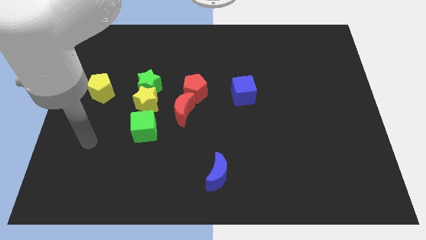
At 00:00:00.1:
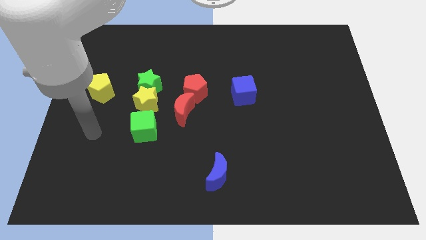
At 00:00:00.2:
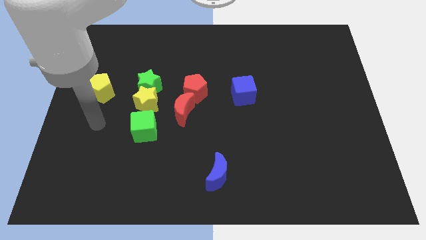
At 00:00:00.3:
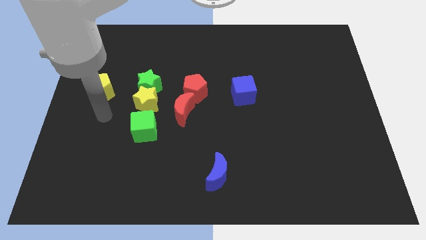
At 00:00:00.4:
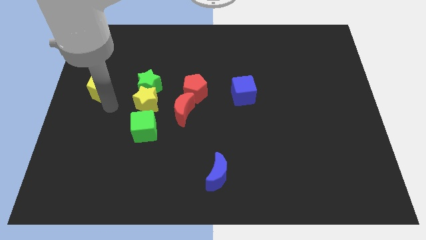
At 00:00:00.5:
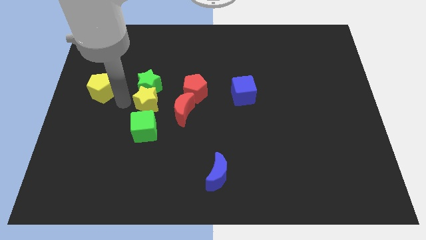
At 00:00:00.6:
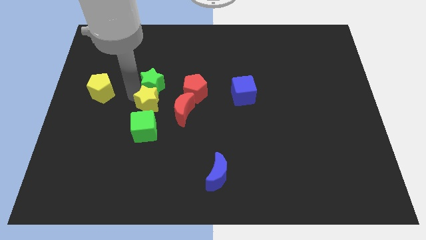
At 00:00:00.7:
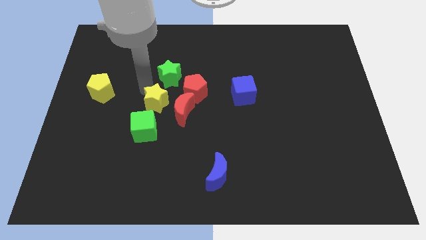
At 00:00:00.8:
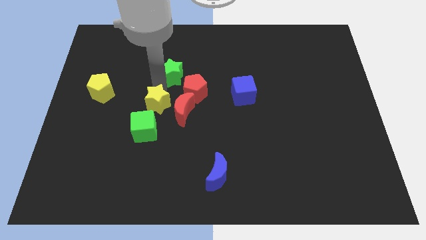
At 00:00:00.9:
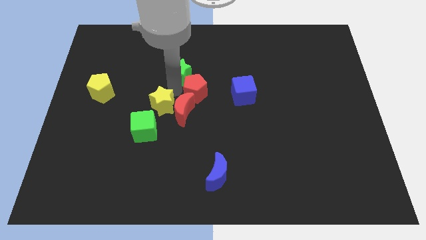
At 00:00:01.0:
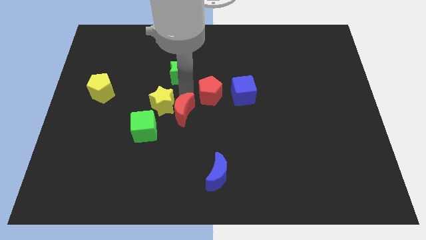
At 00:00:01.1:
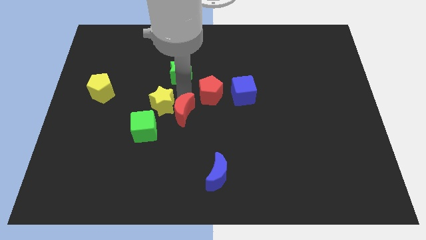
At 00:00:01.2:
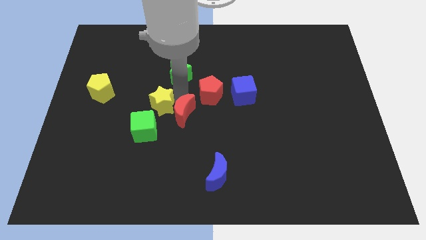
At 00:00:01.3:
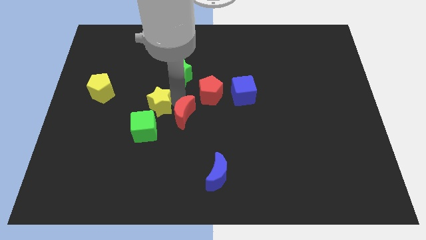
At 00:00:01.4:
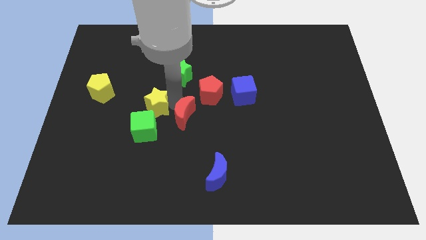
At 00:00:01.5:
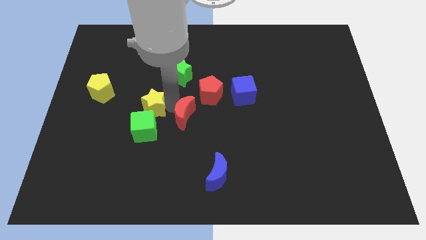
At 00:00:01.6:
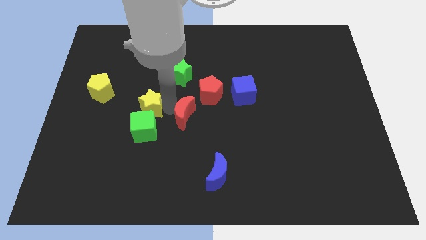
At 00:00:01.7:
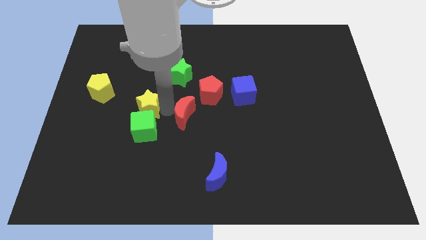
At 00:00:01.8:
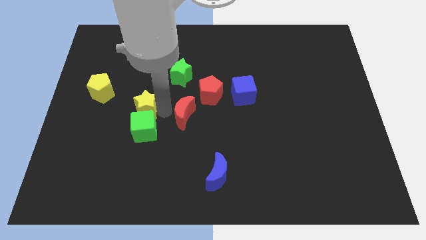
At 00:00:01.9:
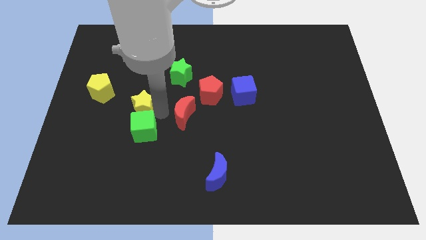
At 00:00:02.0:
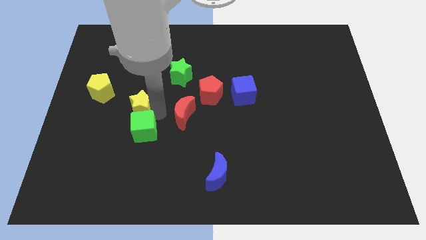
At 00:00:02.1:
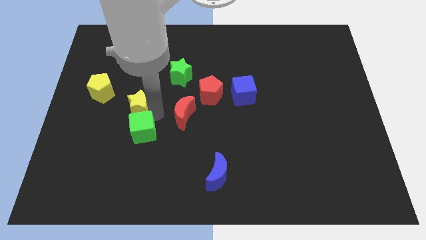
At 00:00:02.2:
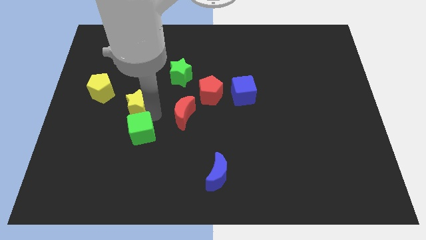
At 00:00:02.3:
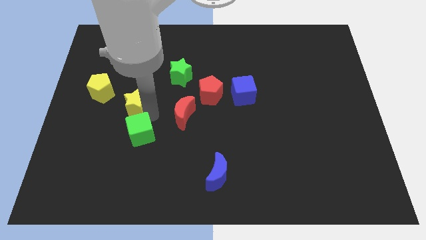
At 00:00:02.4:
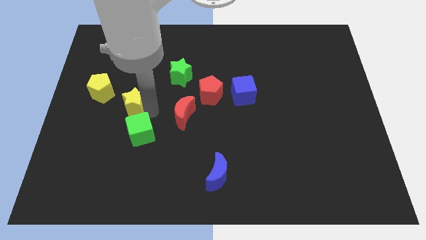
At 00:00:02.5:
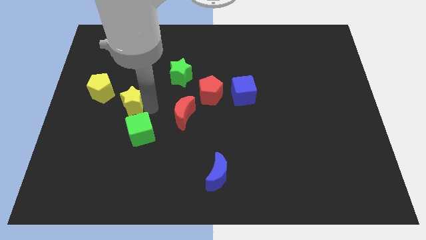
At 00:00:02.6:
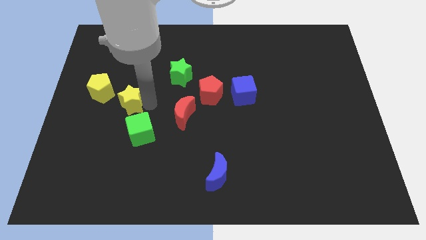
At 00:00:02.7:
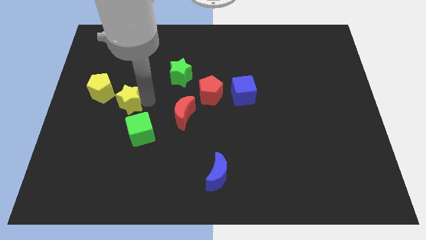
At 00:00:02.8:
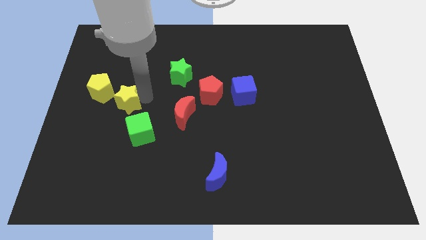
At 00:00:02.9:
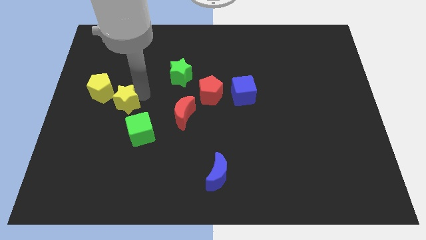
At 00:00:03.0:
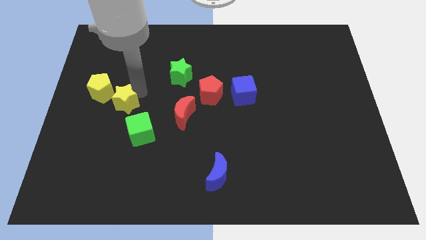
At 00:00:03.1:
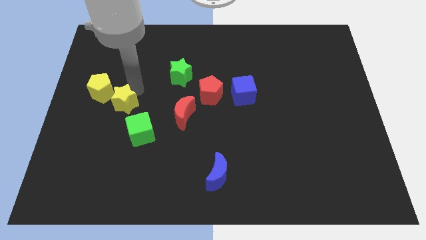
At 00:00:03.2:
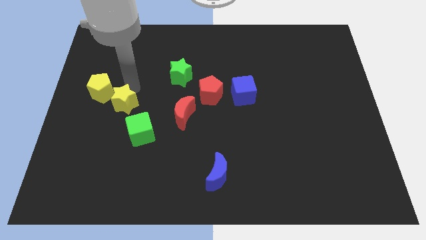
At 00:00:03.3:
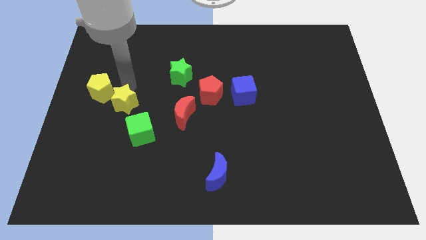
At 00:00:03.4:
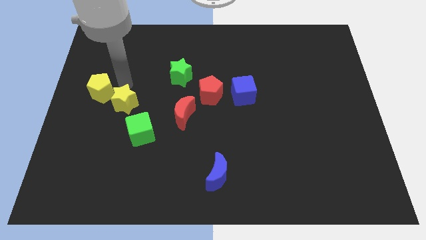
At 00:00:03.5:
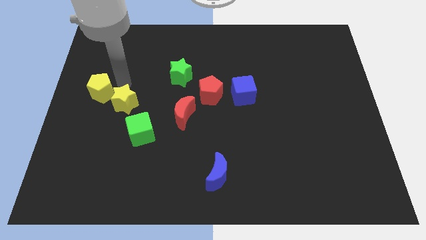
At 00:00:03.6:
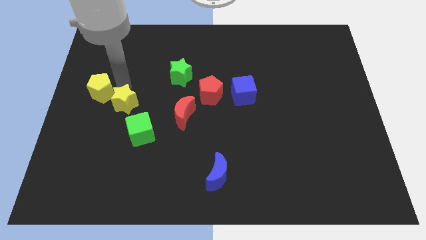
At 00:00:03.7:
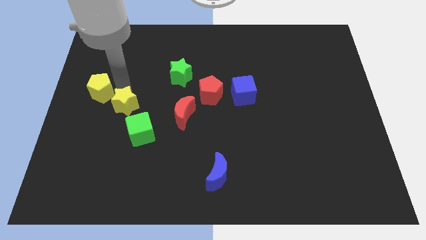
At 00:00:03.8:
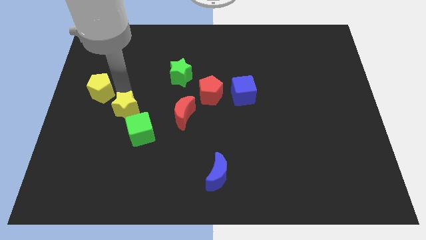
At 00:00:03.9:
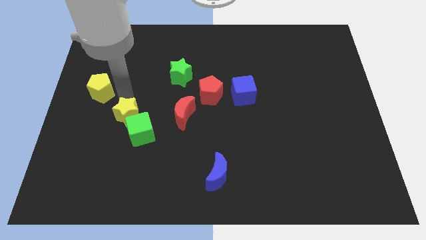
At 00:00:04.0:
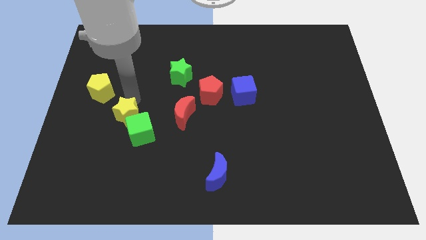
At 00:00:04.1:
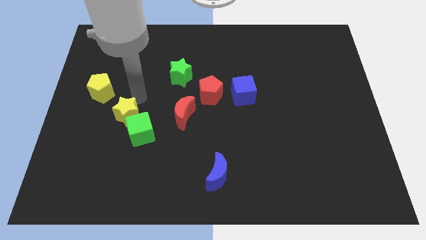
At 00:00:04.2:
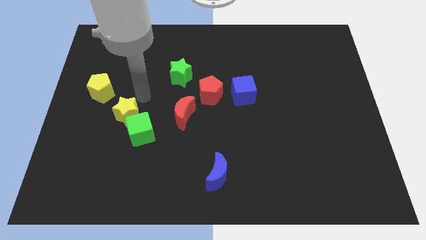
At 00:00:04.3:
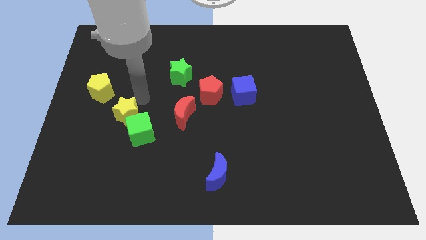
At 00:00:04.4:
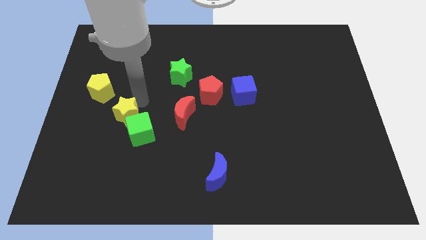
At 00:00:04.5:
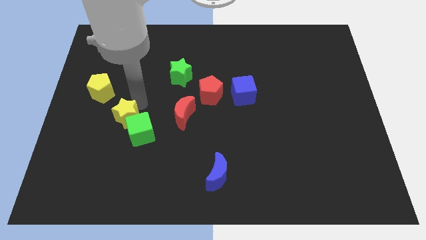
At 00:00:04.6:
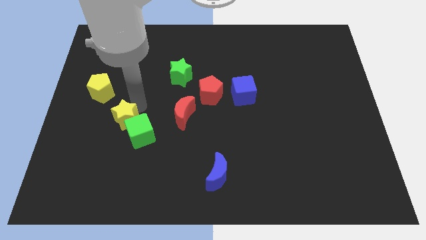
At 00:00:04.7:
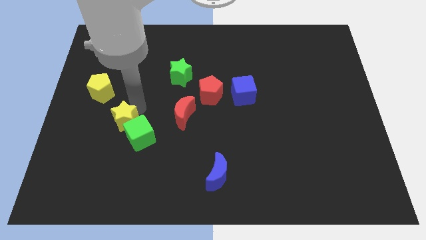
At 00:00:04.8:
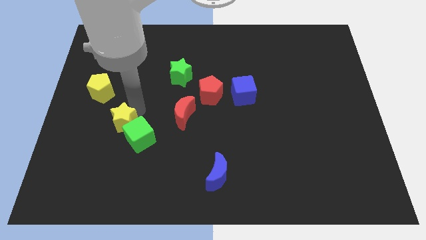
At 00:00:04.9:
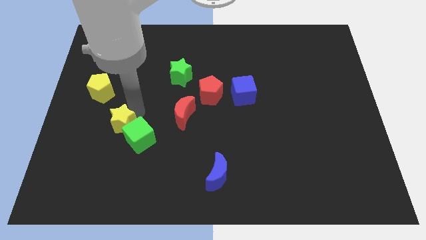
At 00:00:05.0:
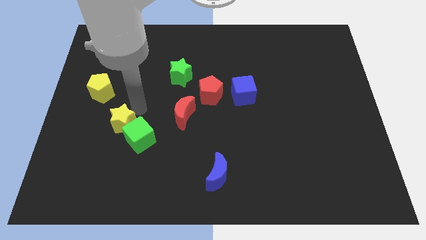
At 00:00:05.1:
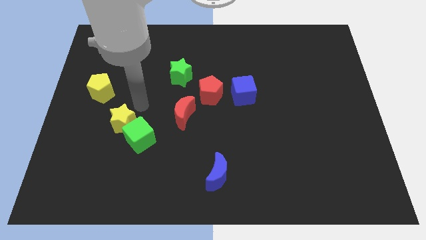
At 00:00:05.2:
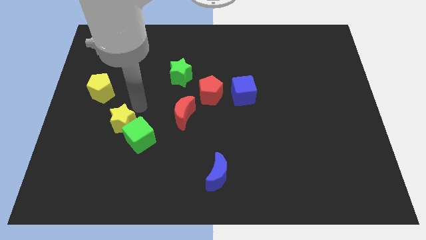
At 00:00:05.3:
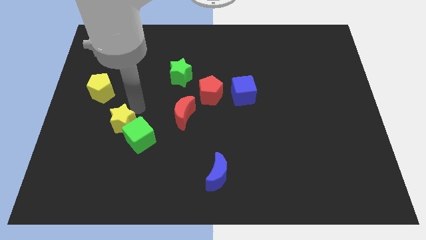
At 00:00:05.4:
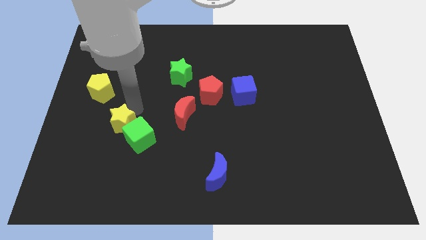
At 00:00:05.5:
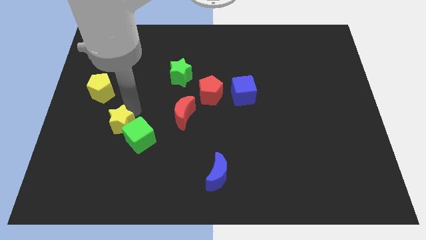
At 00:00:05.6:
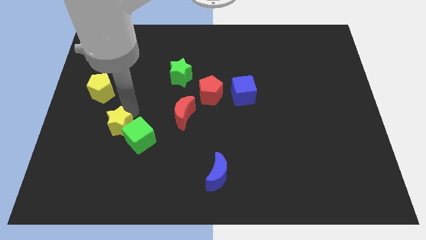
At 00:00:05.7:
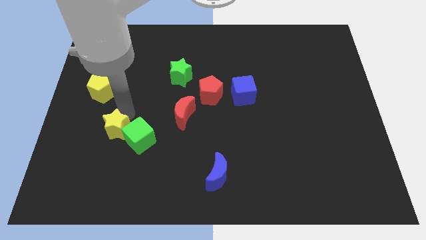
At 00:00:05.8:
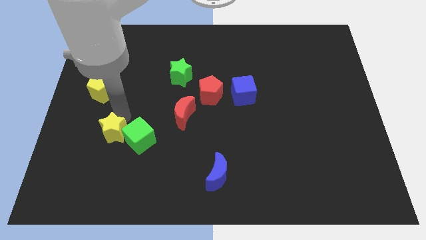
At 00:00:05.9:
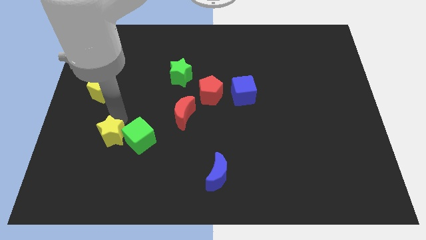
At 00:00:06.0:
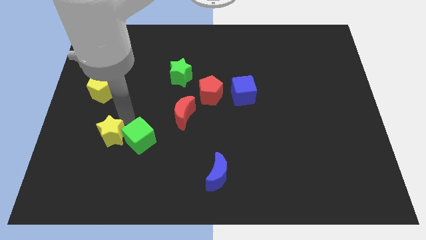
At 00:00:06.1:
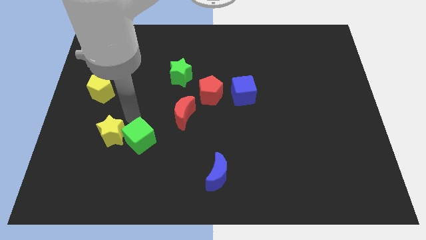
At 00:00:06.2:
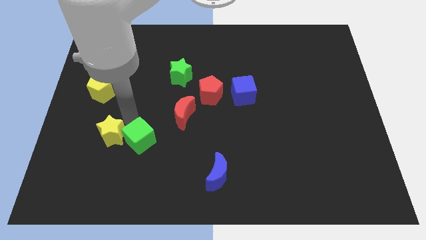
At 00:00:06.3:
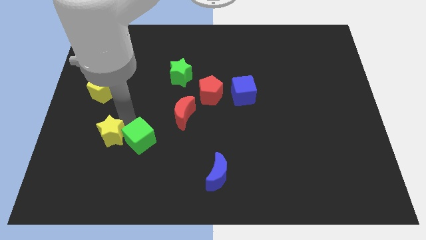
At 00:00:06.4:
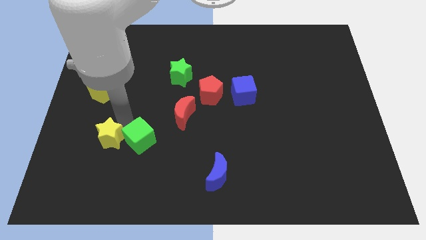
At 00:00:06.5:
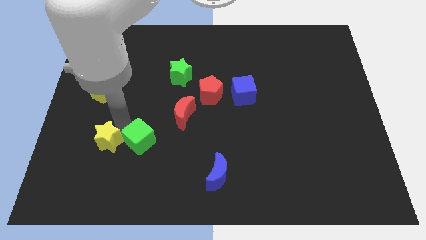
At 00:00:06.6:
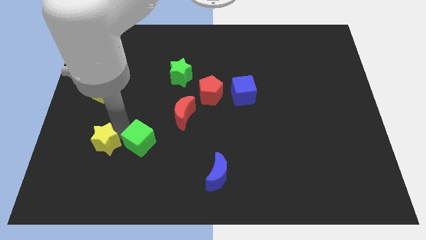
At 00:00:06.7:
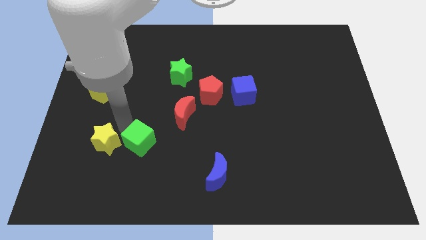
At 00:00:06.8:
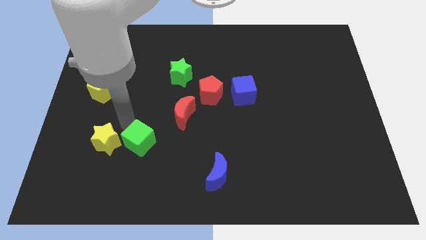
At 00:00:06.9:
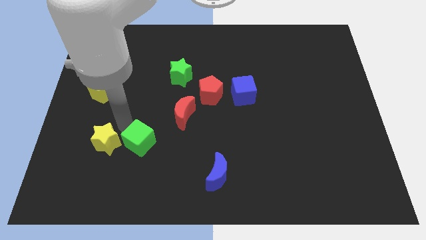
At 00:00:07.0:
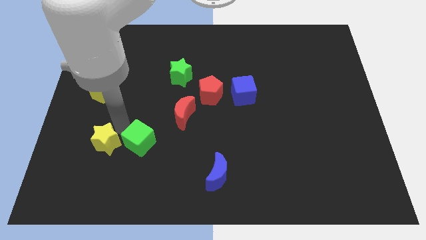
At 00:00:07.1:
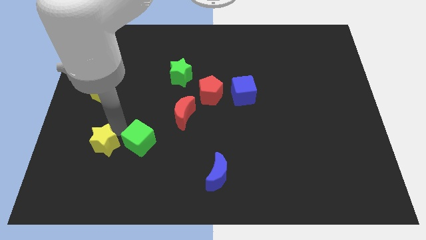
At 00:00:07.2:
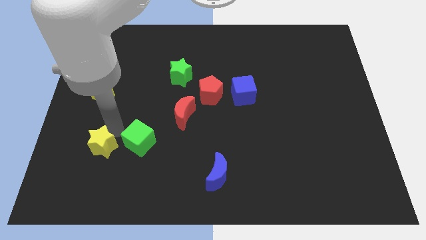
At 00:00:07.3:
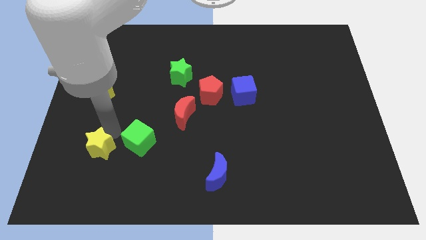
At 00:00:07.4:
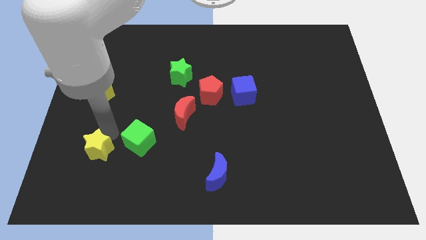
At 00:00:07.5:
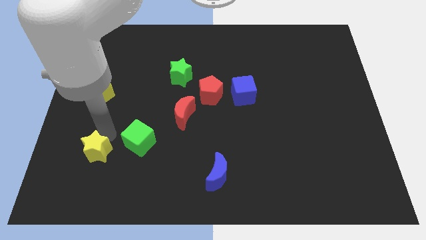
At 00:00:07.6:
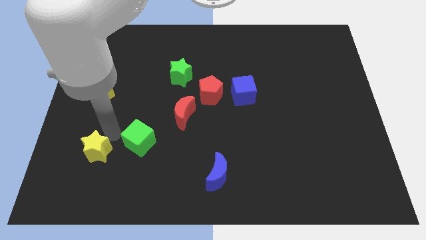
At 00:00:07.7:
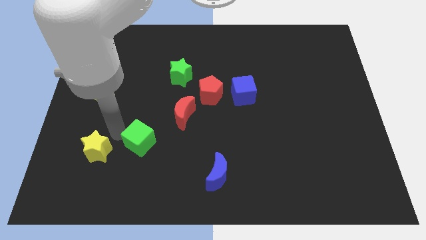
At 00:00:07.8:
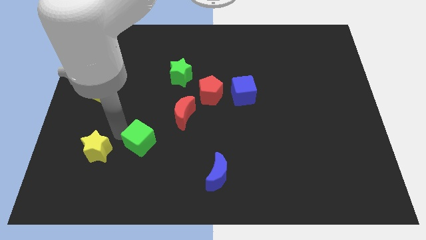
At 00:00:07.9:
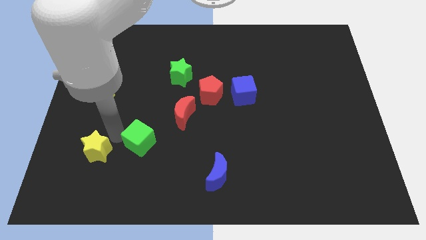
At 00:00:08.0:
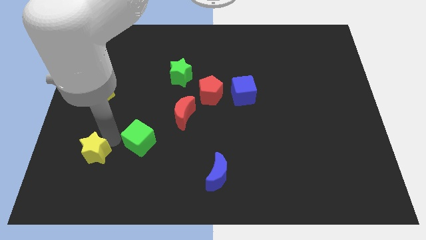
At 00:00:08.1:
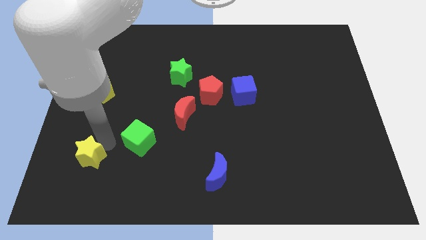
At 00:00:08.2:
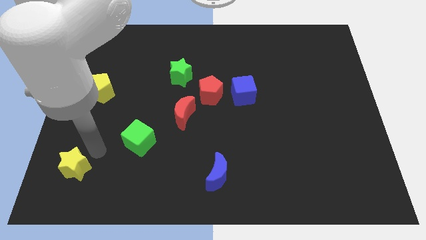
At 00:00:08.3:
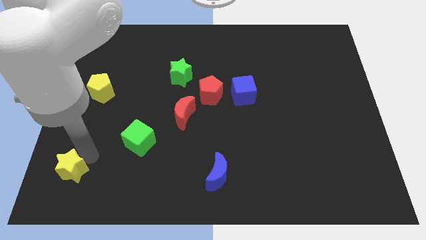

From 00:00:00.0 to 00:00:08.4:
slide the yellow star to the bottom left
